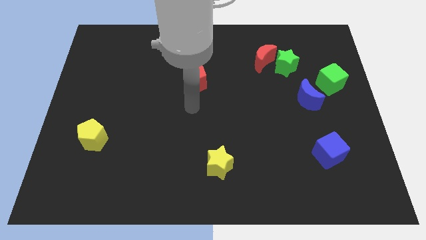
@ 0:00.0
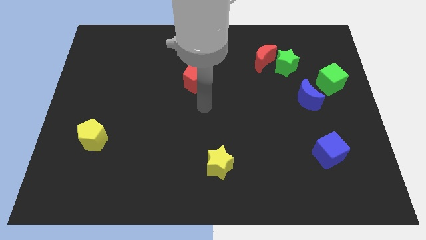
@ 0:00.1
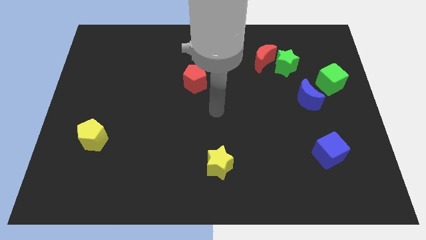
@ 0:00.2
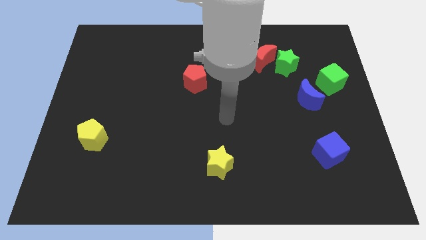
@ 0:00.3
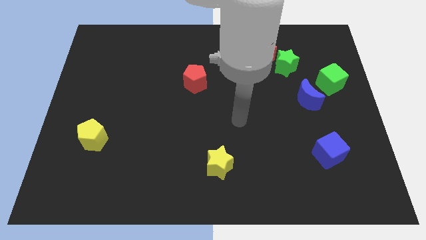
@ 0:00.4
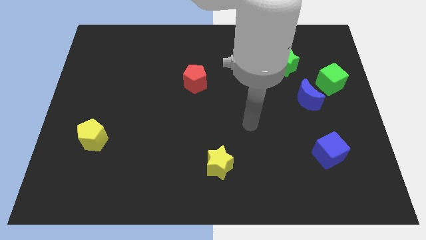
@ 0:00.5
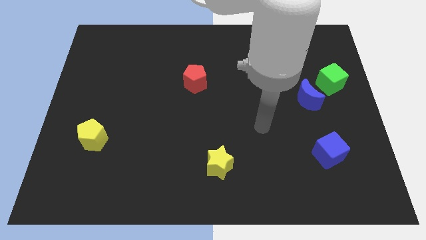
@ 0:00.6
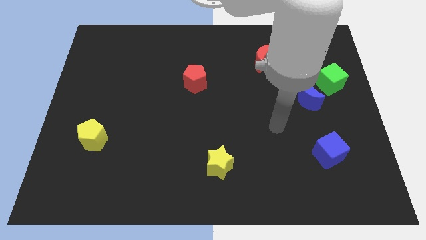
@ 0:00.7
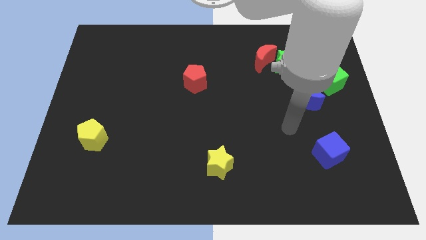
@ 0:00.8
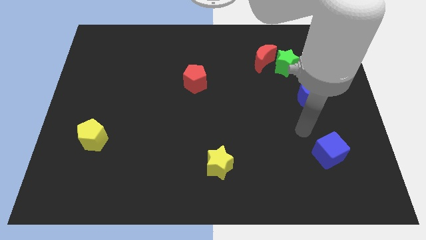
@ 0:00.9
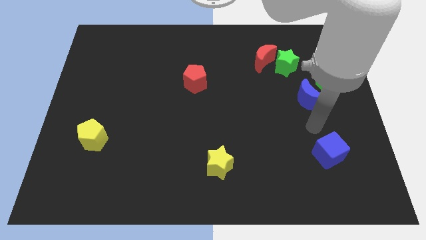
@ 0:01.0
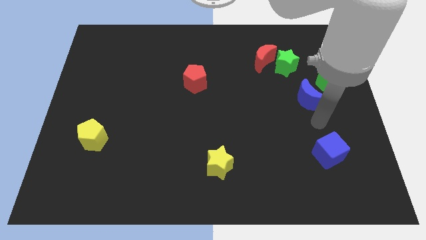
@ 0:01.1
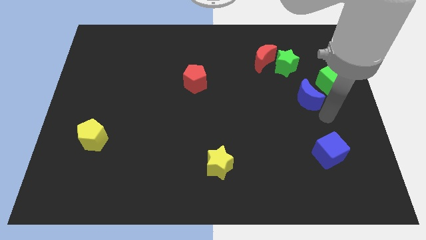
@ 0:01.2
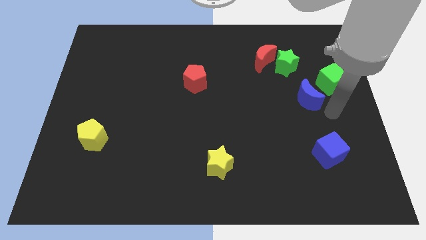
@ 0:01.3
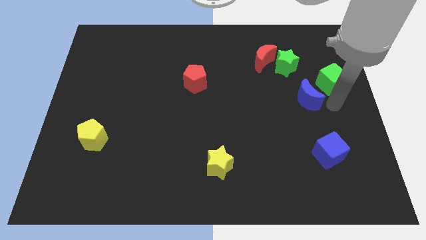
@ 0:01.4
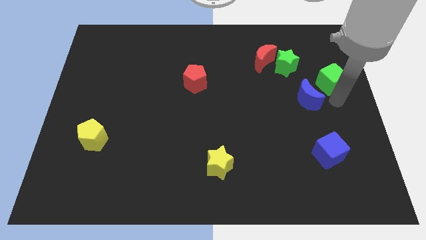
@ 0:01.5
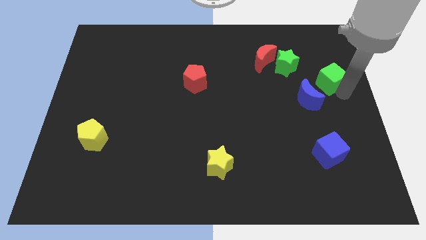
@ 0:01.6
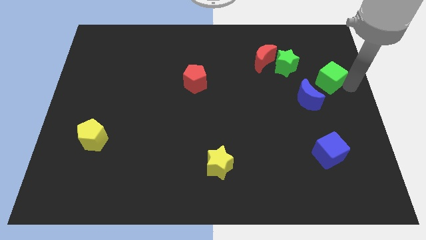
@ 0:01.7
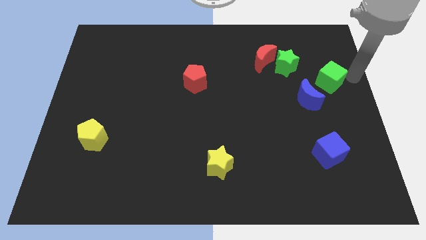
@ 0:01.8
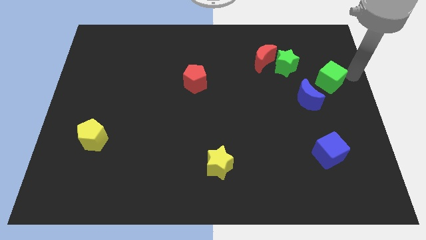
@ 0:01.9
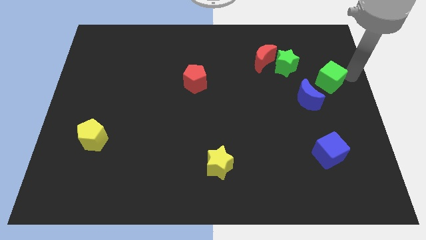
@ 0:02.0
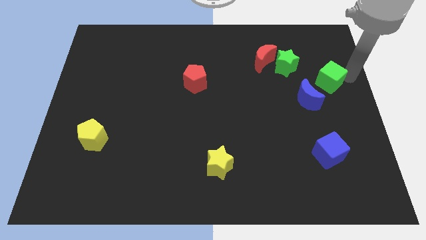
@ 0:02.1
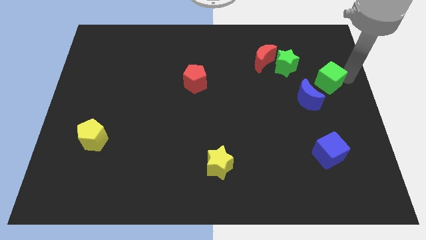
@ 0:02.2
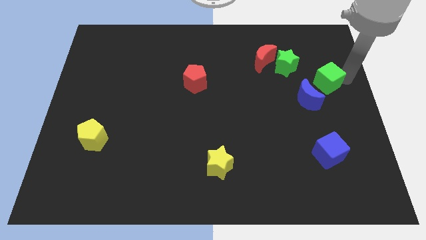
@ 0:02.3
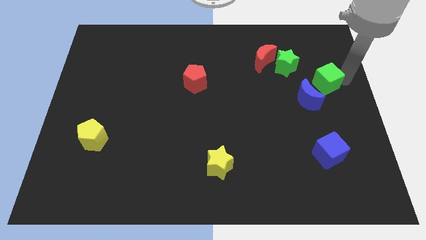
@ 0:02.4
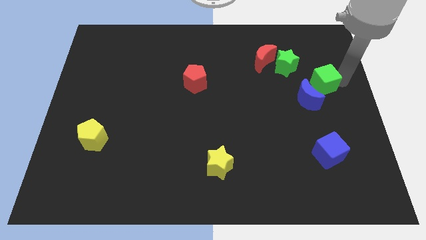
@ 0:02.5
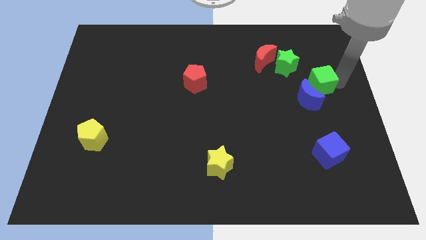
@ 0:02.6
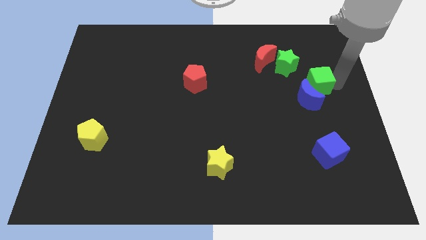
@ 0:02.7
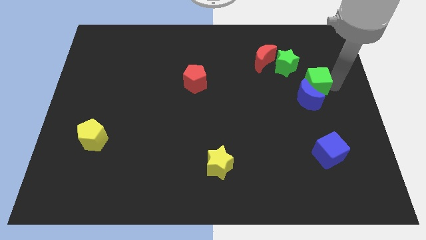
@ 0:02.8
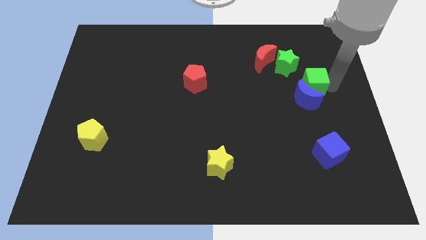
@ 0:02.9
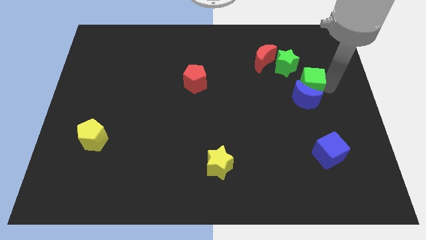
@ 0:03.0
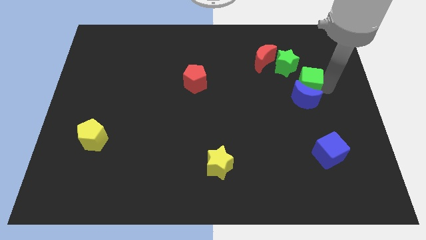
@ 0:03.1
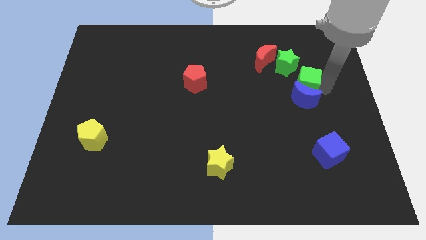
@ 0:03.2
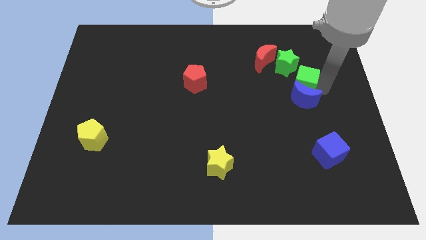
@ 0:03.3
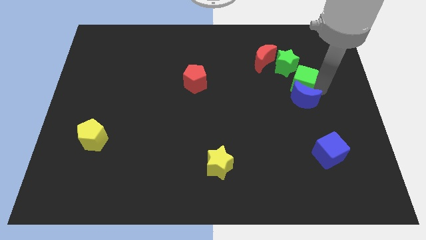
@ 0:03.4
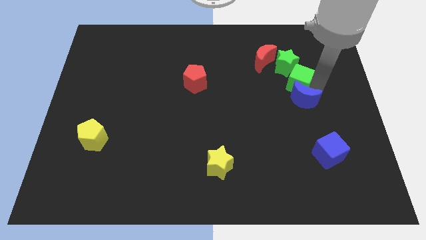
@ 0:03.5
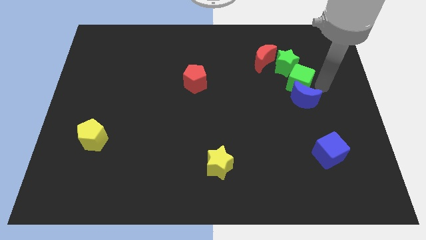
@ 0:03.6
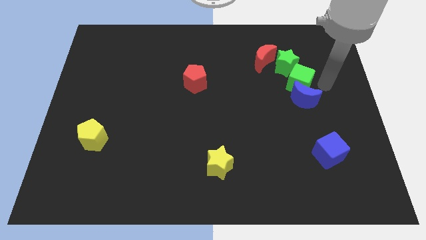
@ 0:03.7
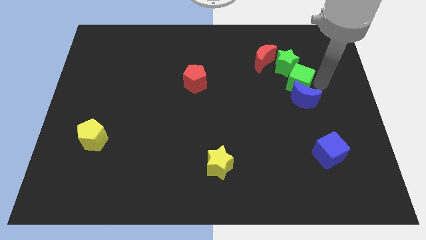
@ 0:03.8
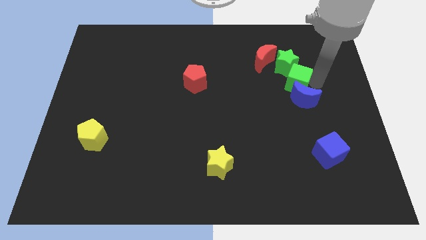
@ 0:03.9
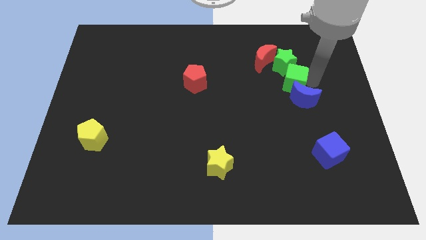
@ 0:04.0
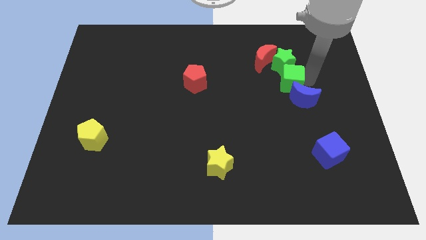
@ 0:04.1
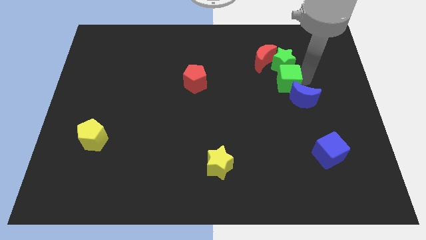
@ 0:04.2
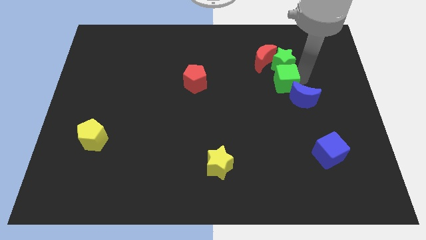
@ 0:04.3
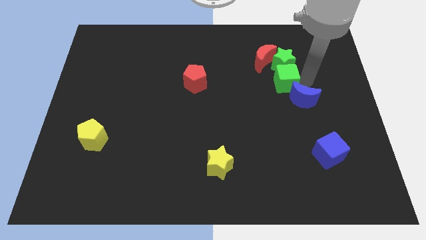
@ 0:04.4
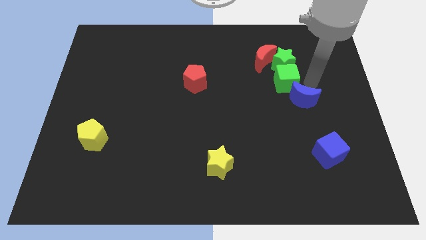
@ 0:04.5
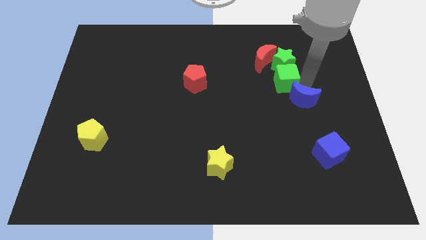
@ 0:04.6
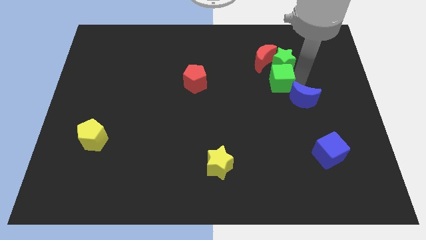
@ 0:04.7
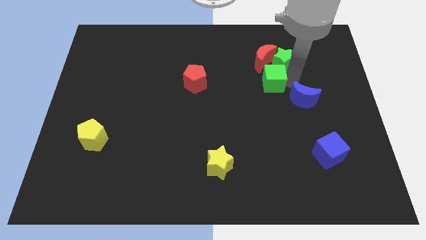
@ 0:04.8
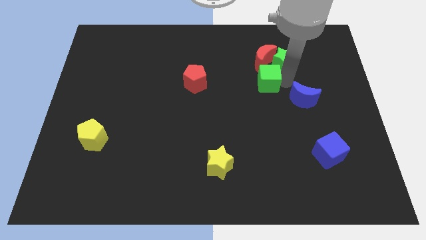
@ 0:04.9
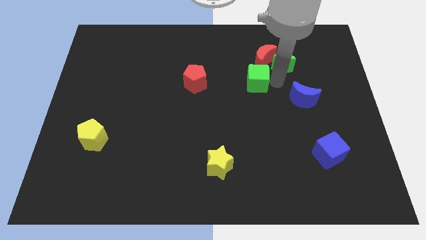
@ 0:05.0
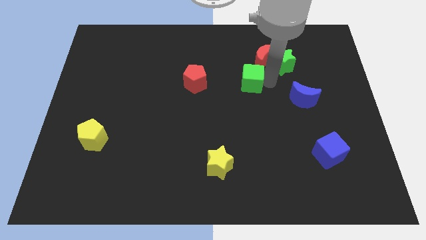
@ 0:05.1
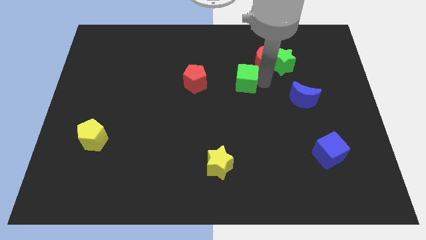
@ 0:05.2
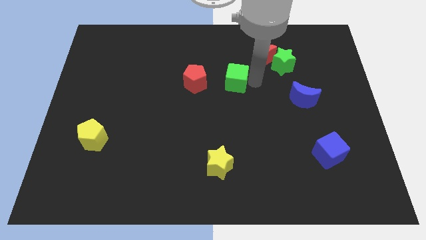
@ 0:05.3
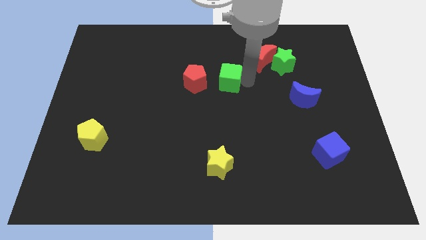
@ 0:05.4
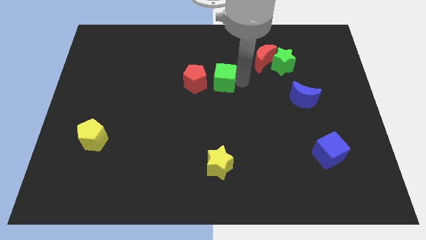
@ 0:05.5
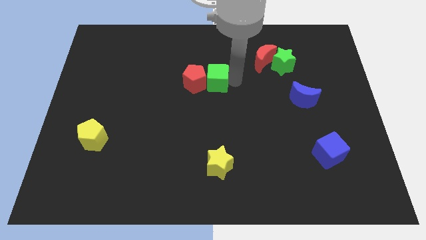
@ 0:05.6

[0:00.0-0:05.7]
move the green cube towards the red pentagon

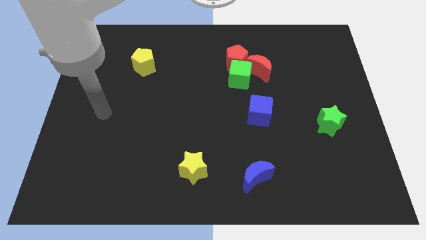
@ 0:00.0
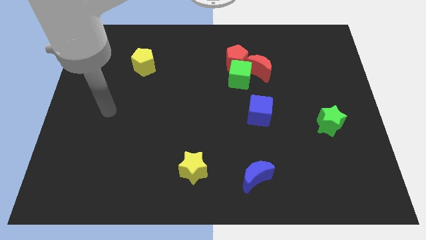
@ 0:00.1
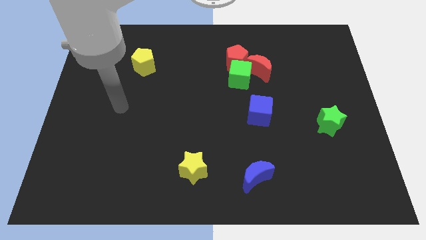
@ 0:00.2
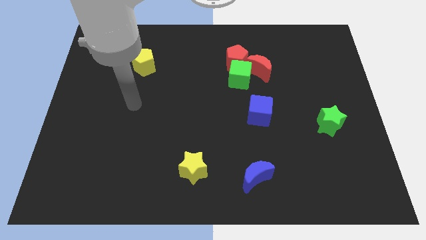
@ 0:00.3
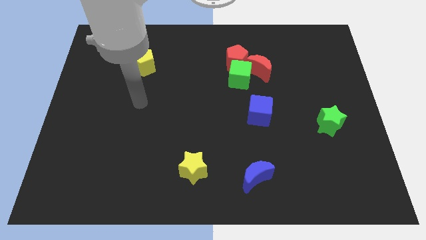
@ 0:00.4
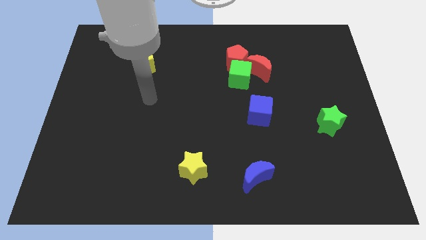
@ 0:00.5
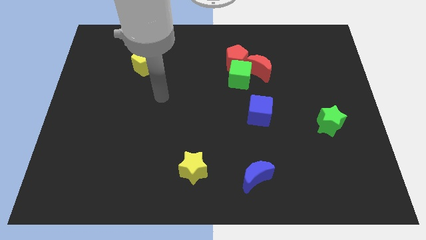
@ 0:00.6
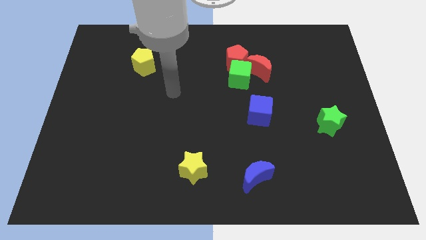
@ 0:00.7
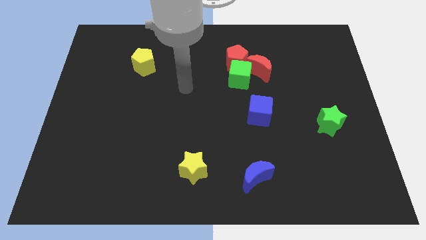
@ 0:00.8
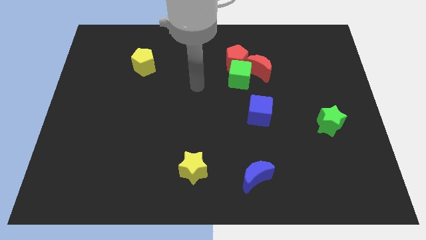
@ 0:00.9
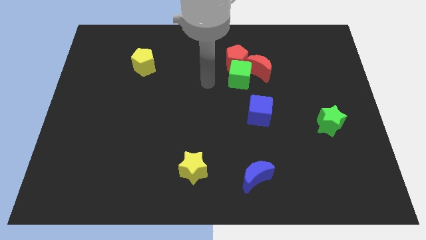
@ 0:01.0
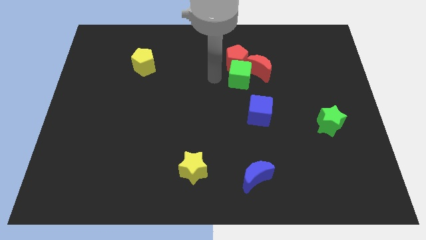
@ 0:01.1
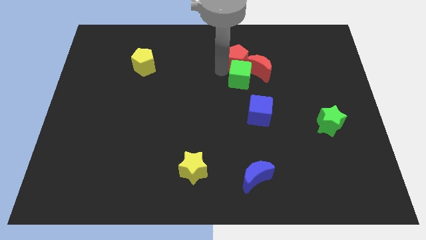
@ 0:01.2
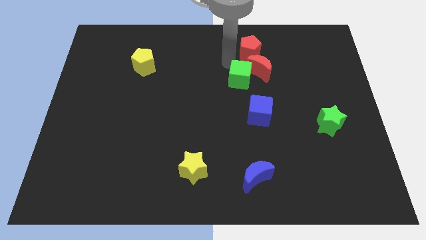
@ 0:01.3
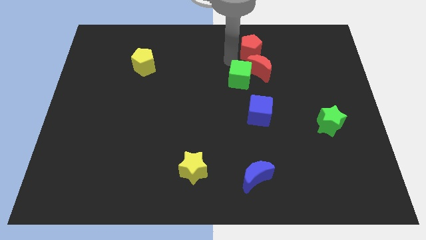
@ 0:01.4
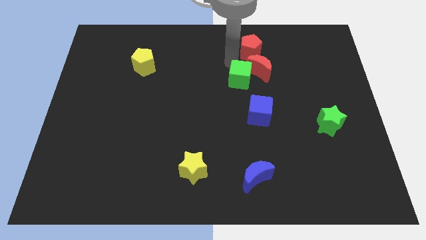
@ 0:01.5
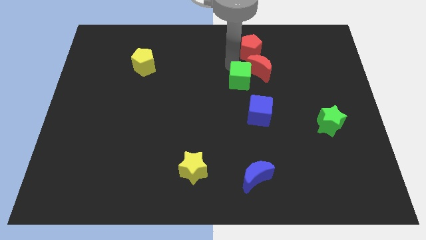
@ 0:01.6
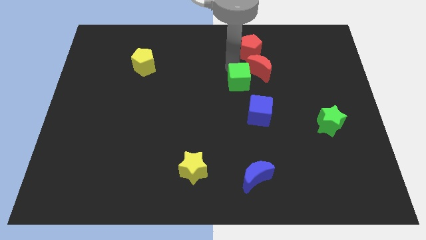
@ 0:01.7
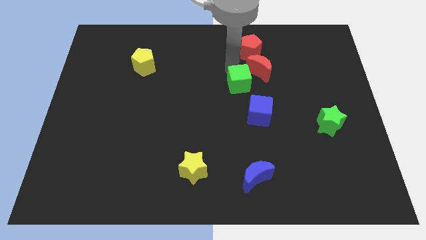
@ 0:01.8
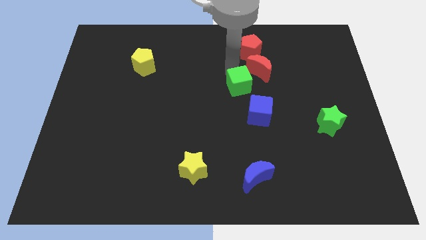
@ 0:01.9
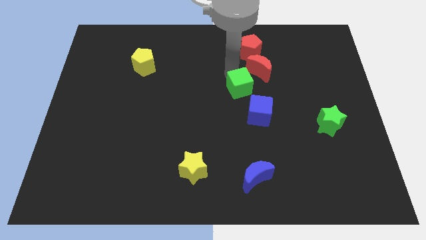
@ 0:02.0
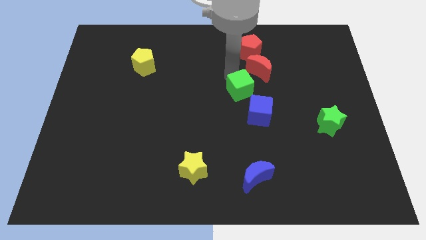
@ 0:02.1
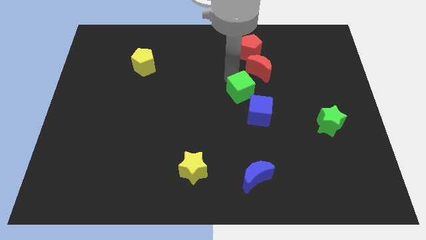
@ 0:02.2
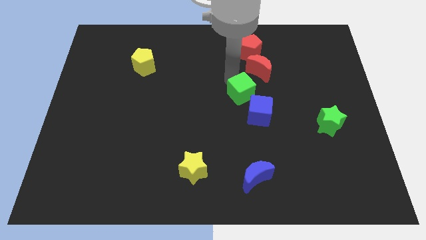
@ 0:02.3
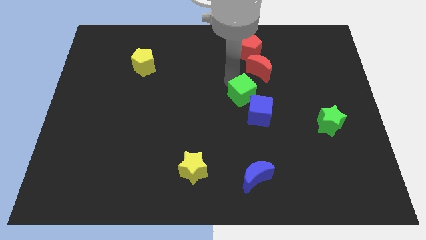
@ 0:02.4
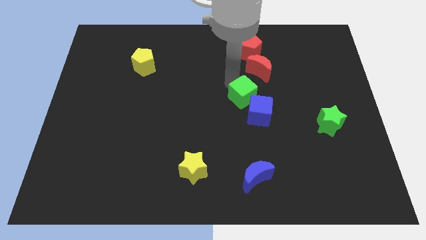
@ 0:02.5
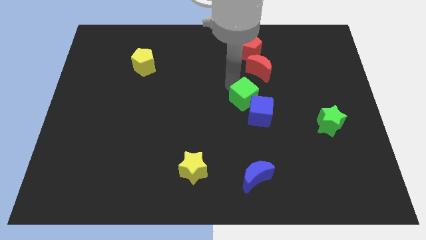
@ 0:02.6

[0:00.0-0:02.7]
slide the green cube towards the blue cube
